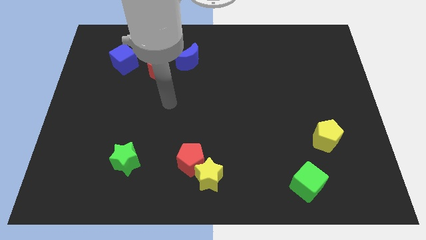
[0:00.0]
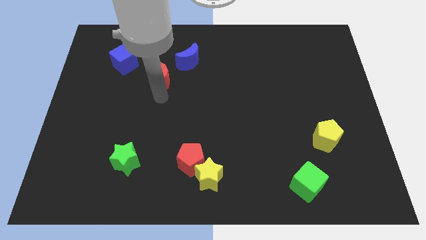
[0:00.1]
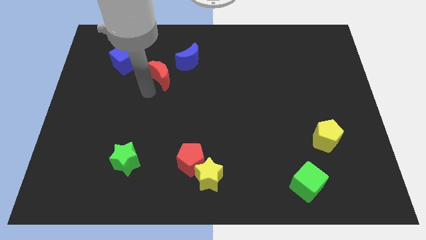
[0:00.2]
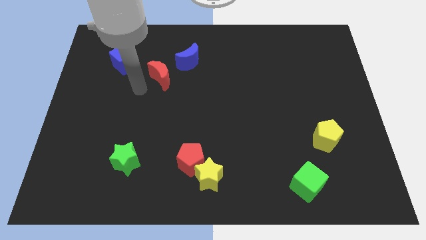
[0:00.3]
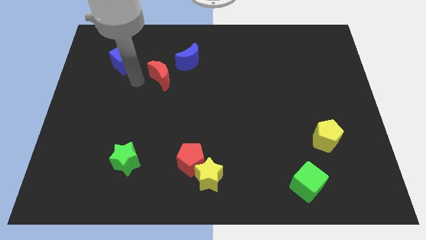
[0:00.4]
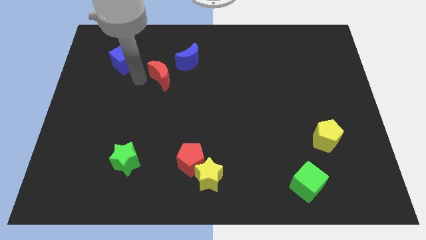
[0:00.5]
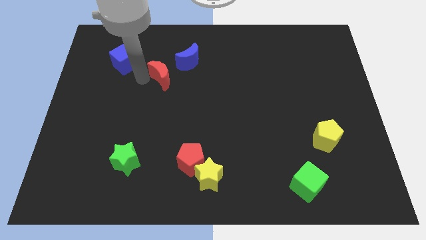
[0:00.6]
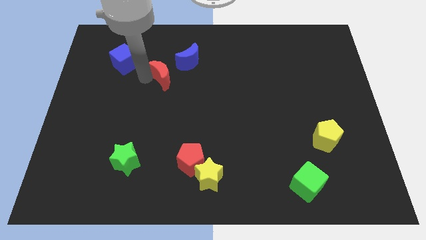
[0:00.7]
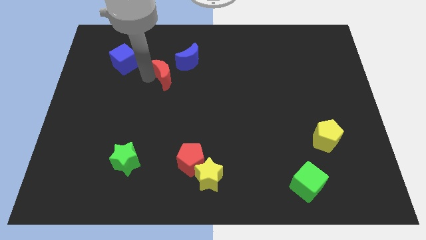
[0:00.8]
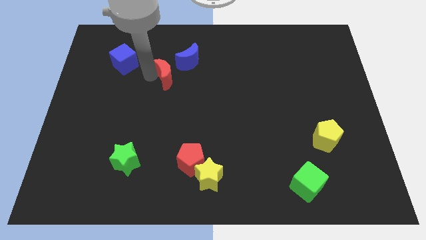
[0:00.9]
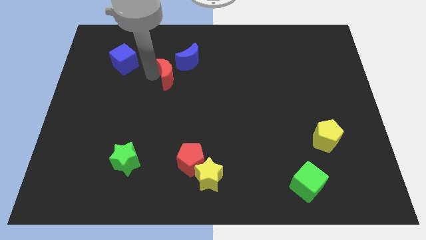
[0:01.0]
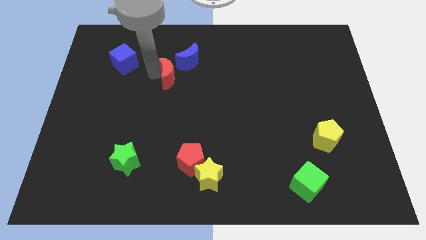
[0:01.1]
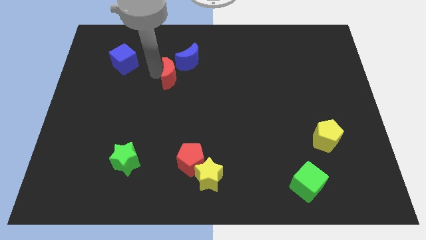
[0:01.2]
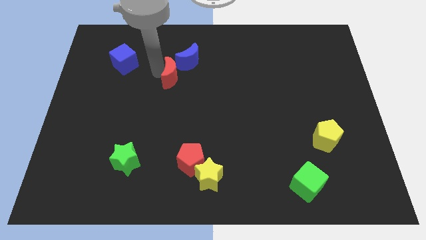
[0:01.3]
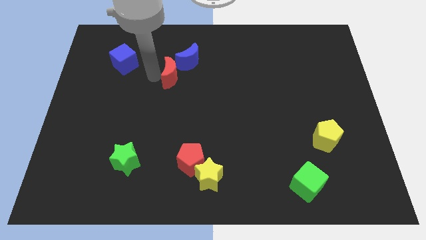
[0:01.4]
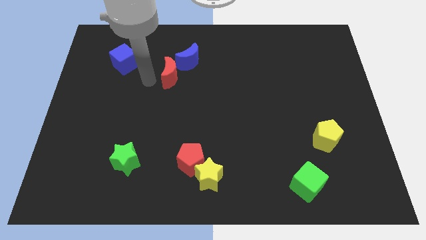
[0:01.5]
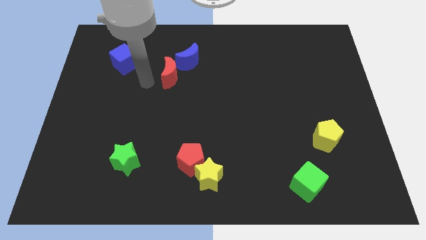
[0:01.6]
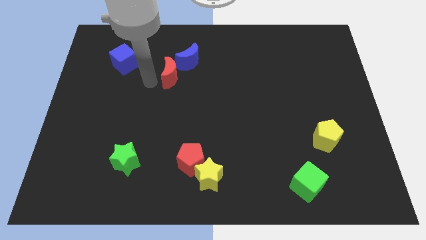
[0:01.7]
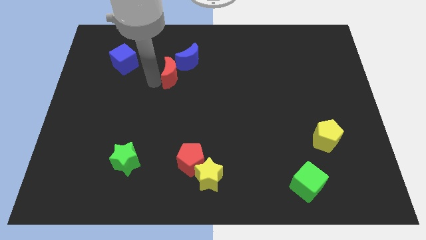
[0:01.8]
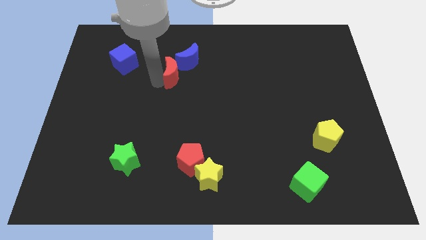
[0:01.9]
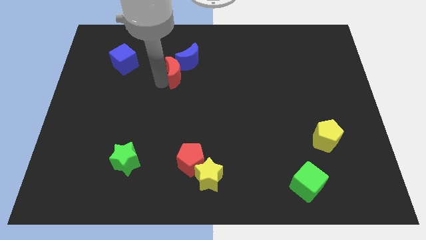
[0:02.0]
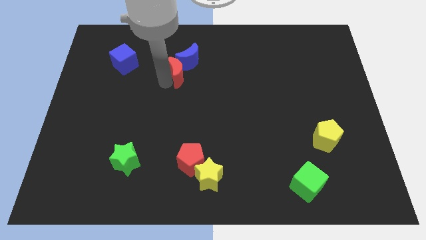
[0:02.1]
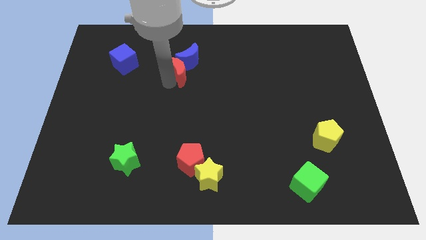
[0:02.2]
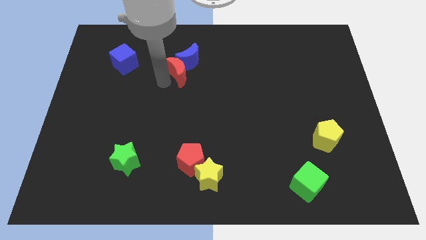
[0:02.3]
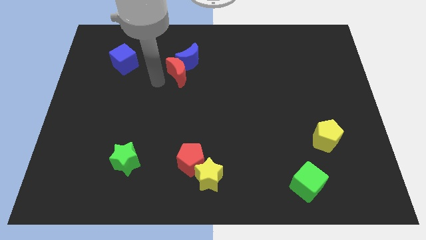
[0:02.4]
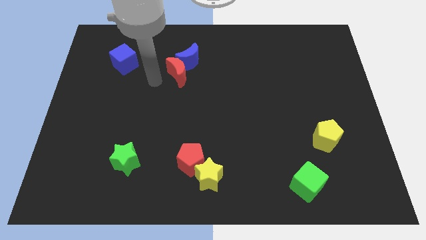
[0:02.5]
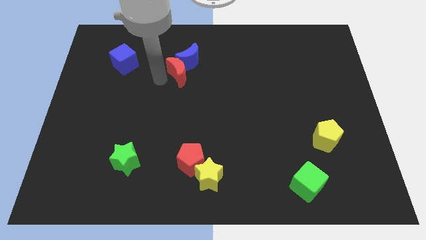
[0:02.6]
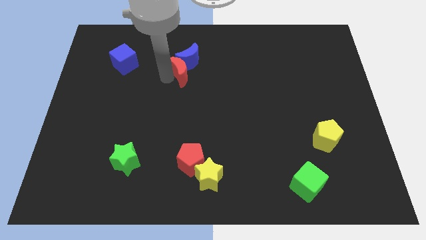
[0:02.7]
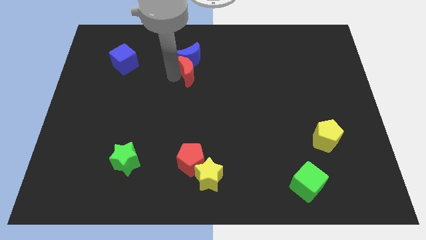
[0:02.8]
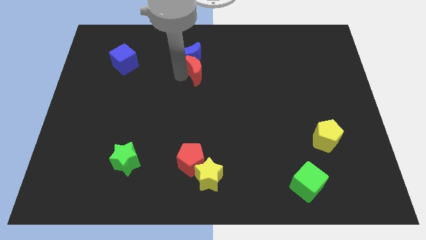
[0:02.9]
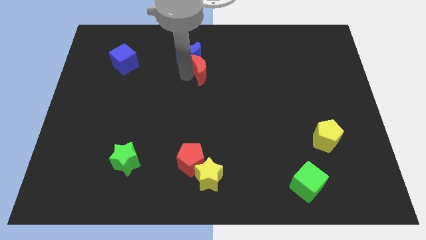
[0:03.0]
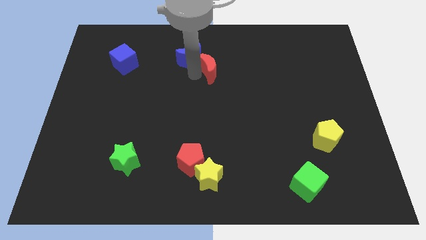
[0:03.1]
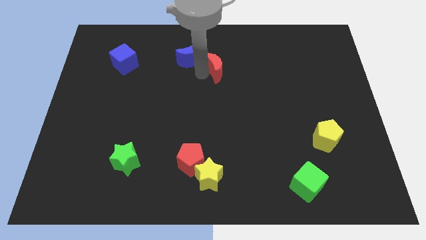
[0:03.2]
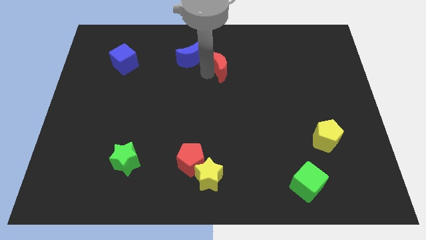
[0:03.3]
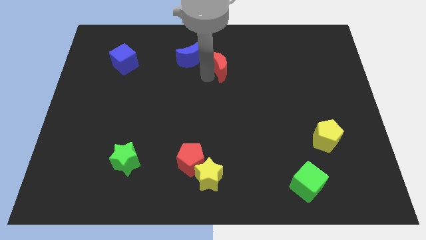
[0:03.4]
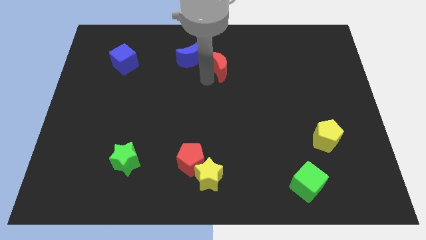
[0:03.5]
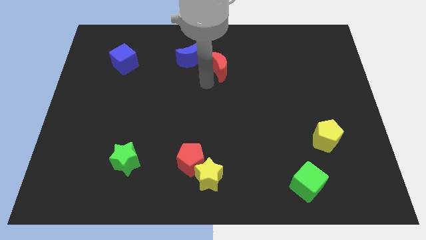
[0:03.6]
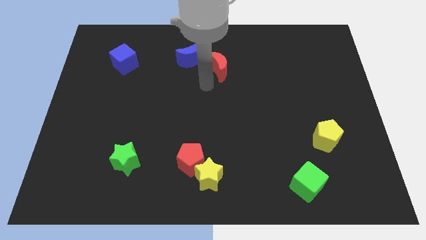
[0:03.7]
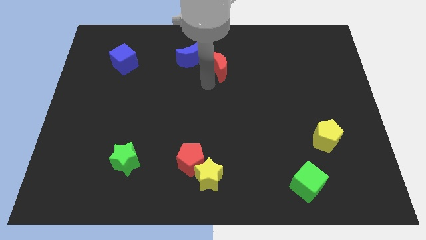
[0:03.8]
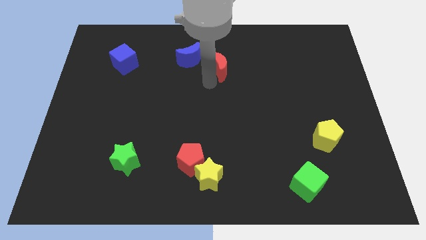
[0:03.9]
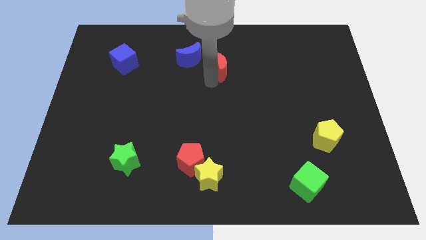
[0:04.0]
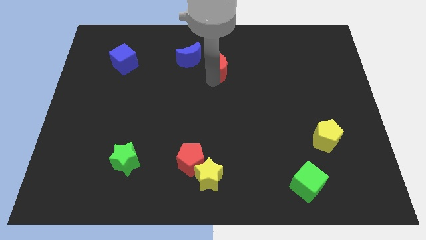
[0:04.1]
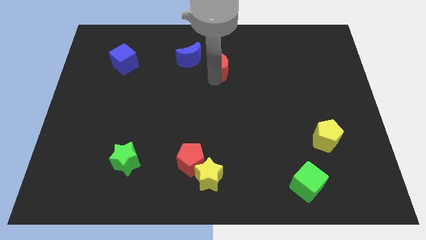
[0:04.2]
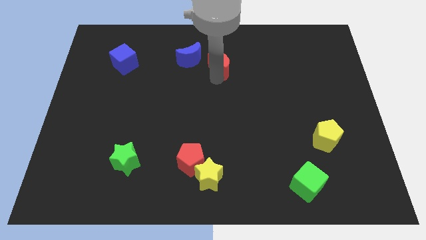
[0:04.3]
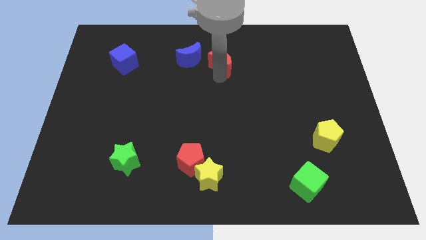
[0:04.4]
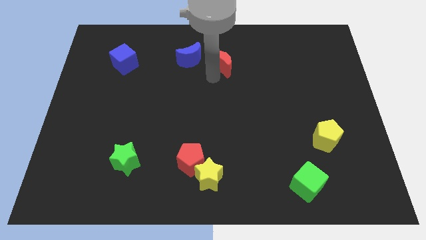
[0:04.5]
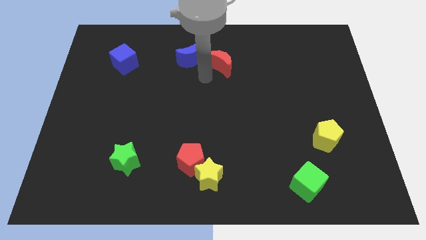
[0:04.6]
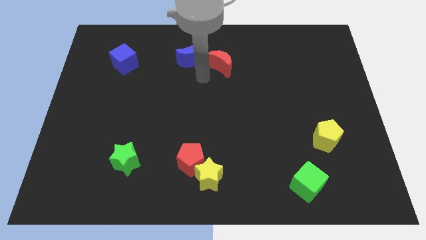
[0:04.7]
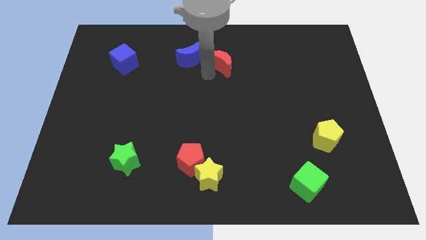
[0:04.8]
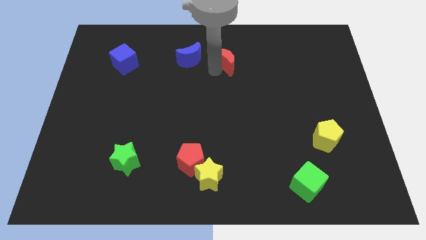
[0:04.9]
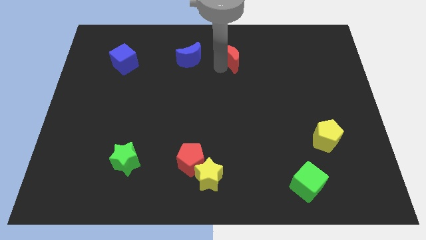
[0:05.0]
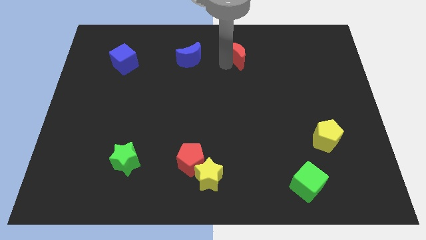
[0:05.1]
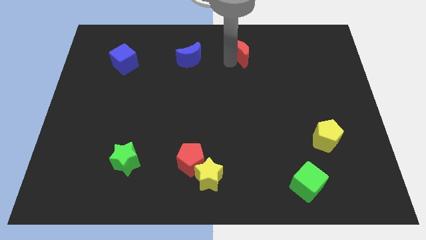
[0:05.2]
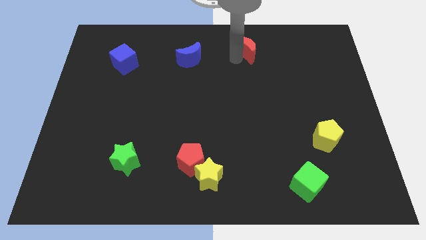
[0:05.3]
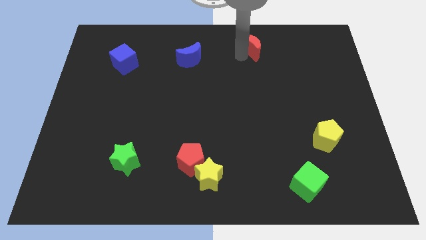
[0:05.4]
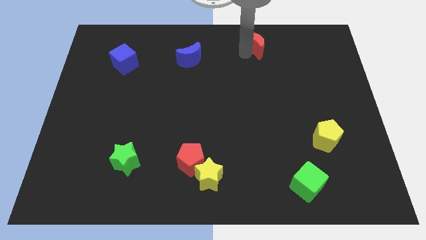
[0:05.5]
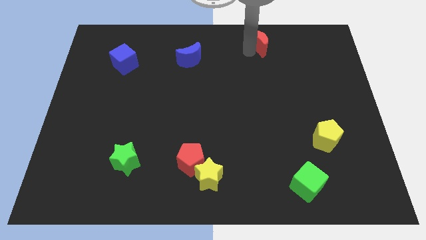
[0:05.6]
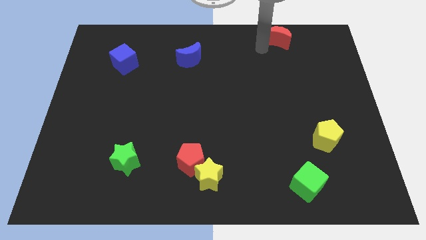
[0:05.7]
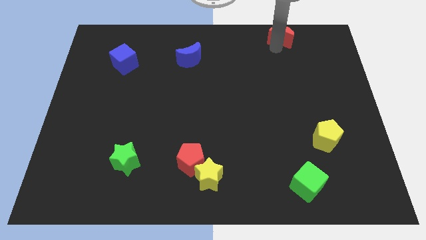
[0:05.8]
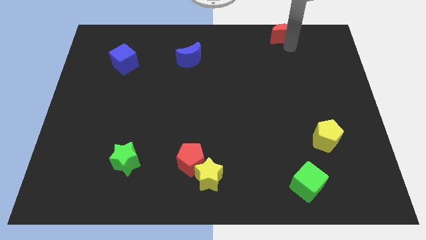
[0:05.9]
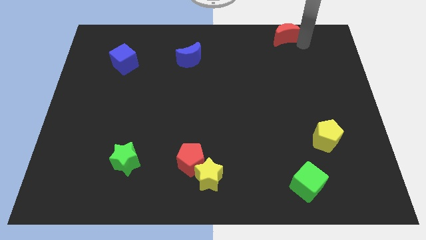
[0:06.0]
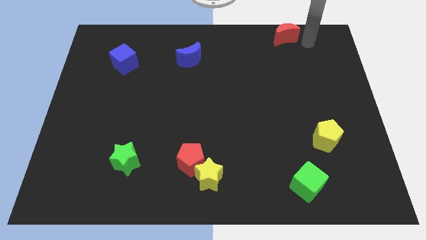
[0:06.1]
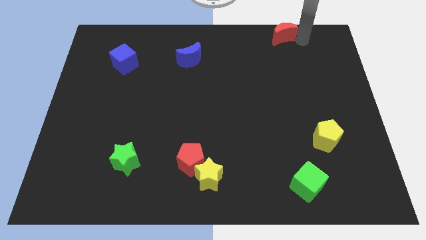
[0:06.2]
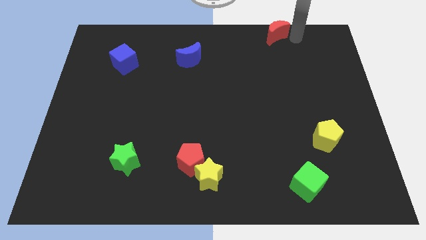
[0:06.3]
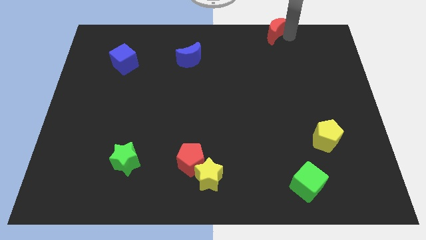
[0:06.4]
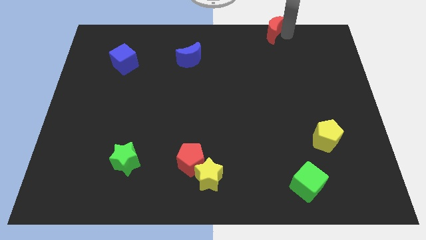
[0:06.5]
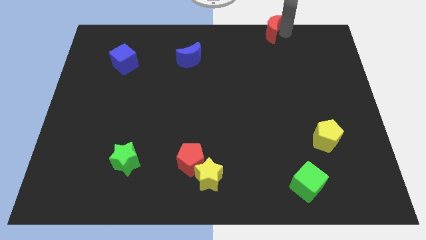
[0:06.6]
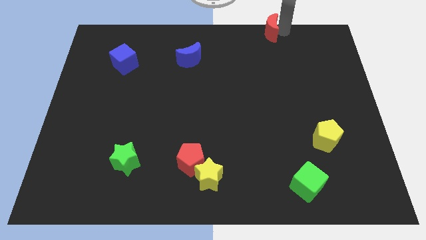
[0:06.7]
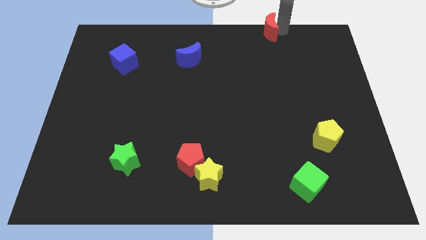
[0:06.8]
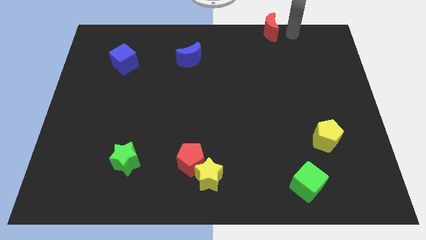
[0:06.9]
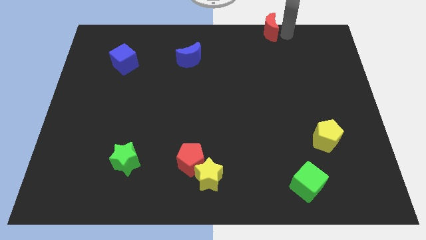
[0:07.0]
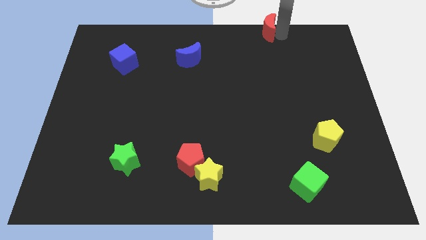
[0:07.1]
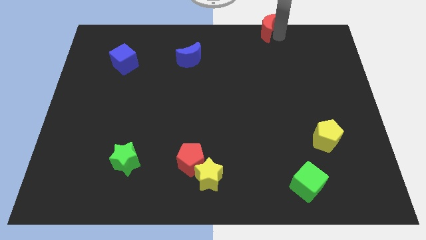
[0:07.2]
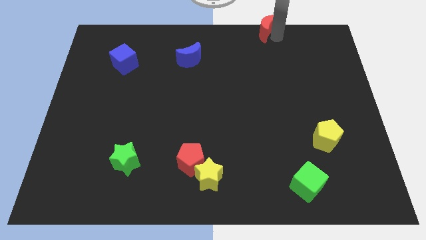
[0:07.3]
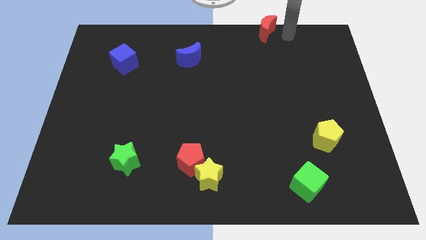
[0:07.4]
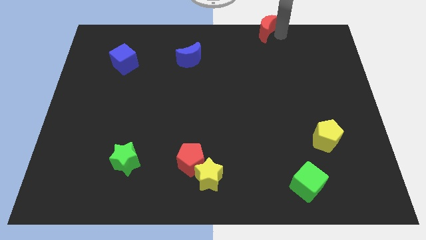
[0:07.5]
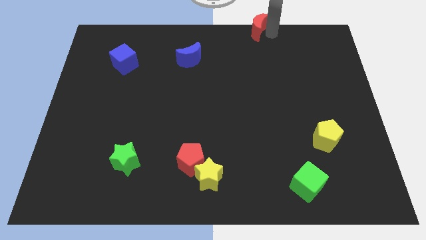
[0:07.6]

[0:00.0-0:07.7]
slide the red moon to the top side
